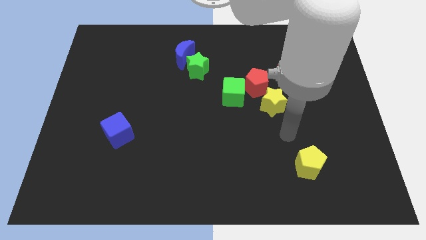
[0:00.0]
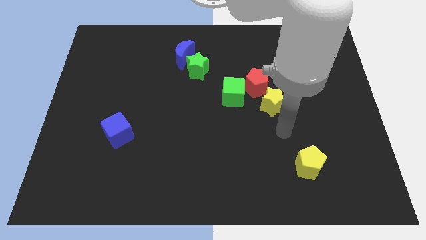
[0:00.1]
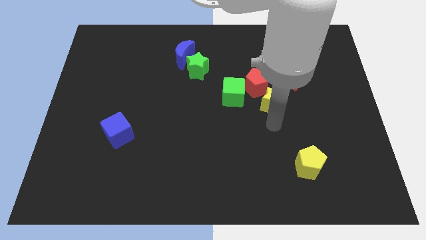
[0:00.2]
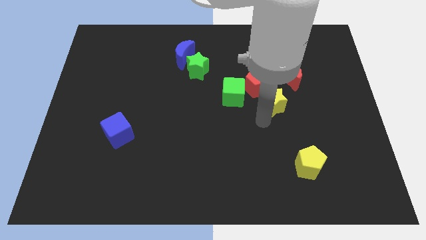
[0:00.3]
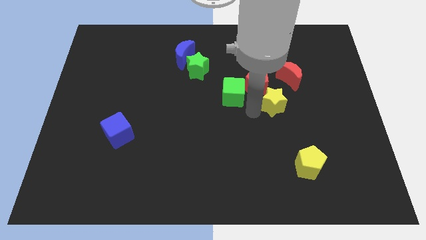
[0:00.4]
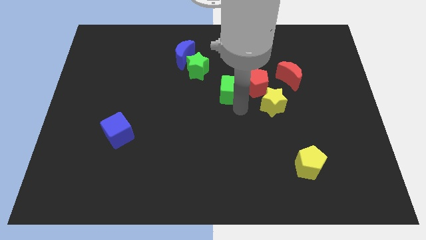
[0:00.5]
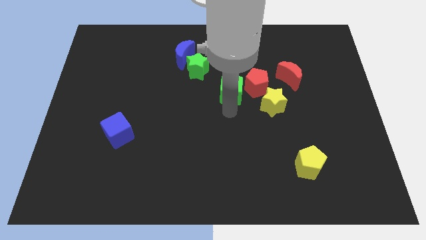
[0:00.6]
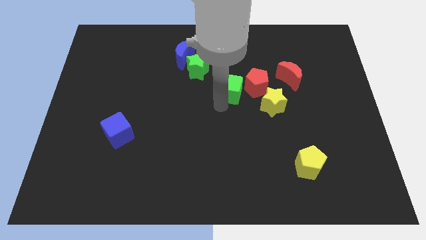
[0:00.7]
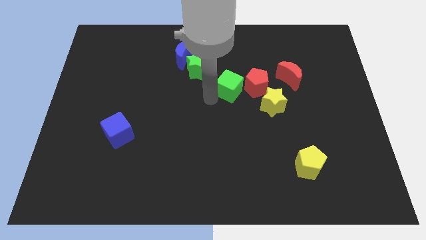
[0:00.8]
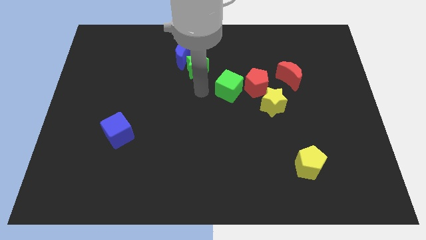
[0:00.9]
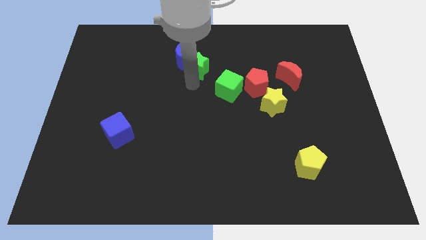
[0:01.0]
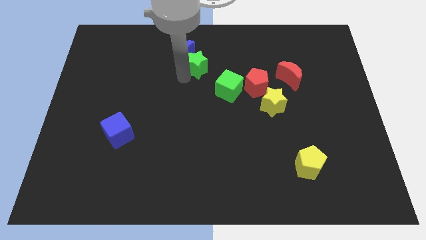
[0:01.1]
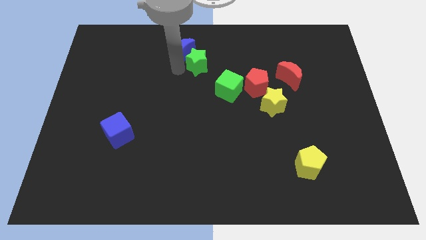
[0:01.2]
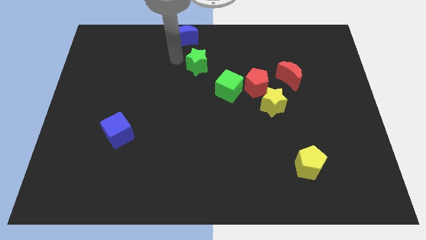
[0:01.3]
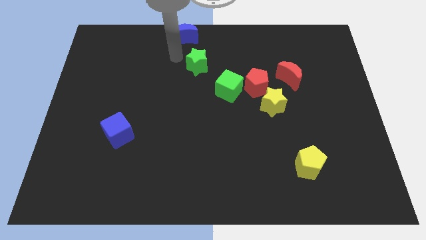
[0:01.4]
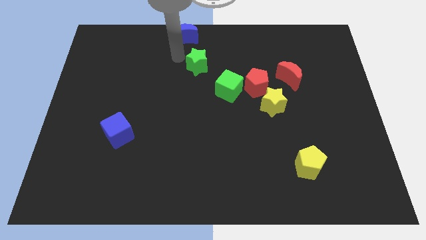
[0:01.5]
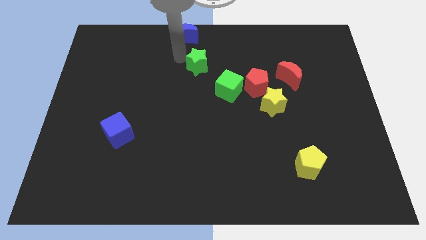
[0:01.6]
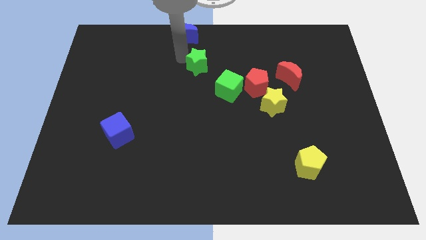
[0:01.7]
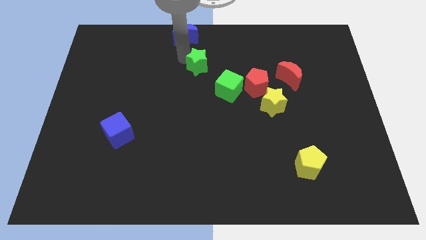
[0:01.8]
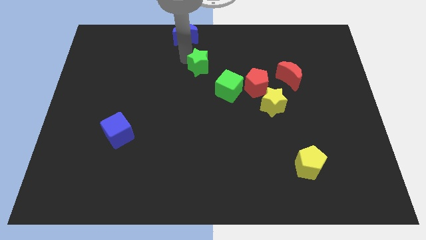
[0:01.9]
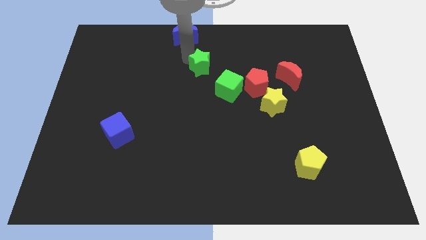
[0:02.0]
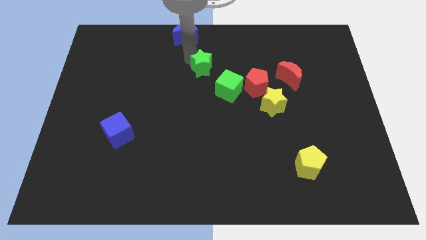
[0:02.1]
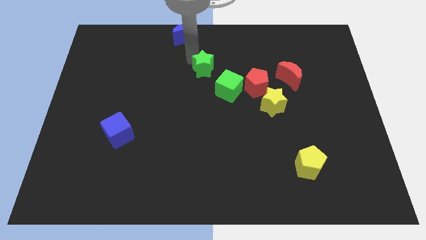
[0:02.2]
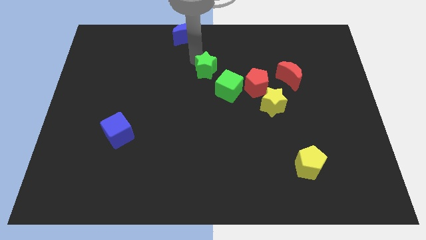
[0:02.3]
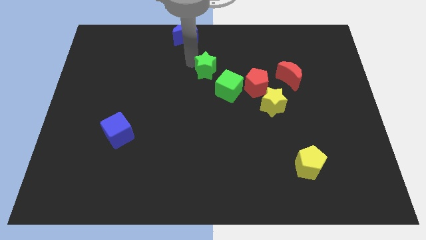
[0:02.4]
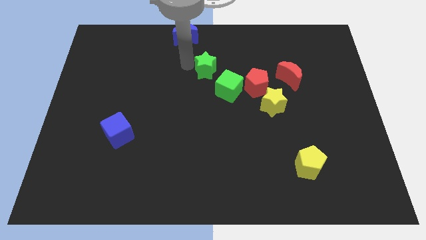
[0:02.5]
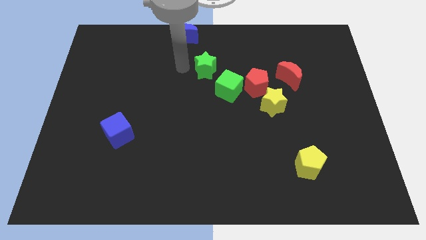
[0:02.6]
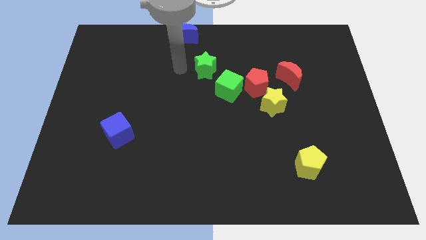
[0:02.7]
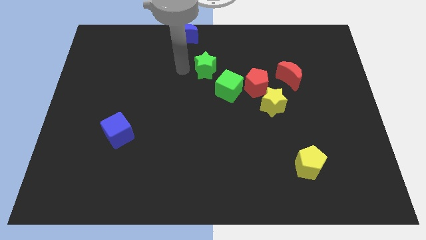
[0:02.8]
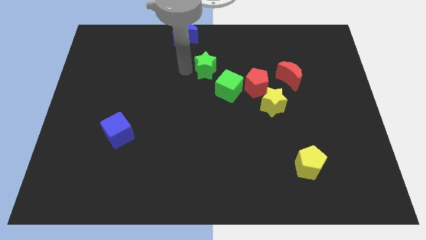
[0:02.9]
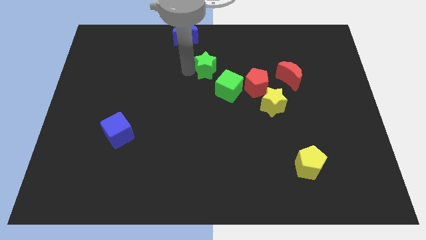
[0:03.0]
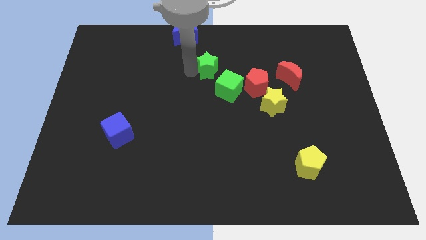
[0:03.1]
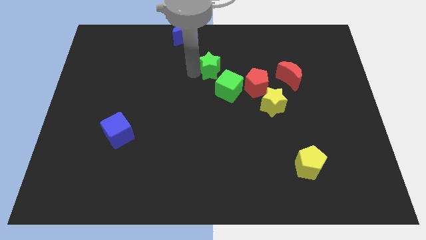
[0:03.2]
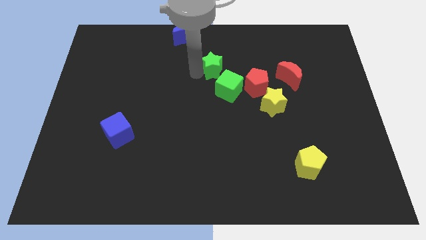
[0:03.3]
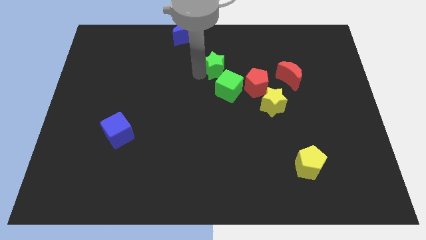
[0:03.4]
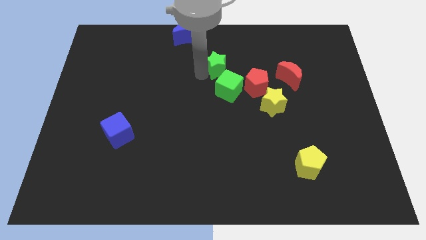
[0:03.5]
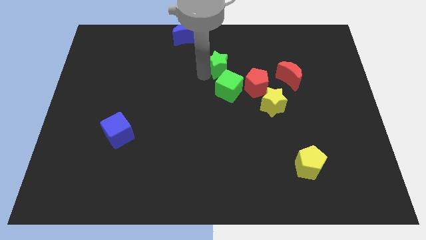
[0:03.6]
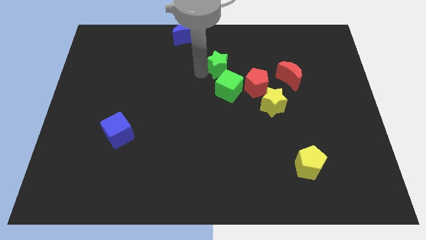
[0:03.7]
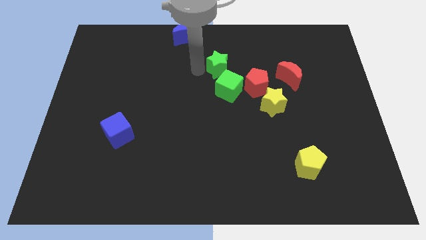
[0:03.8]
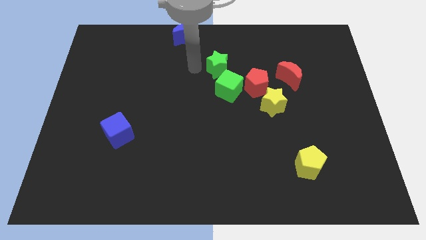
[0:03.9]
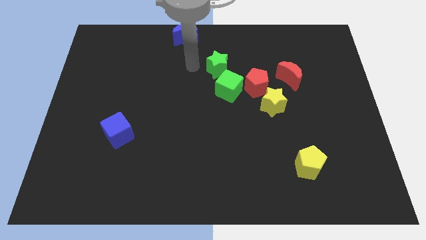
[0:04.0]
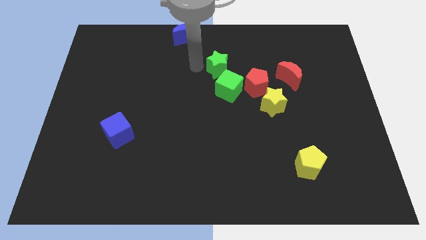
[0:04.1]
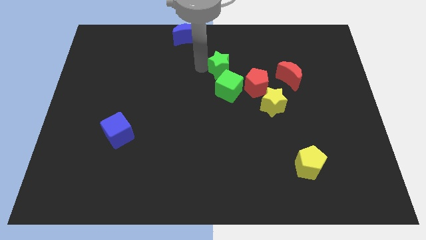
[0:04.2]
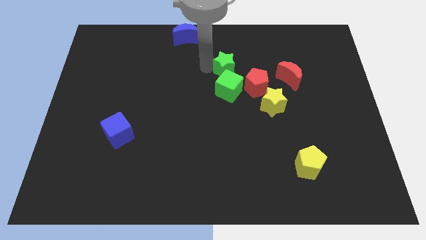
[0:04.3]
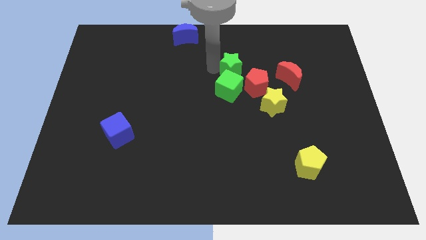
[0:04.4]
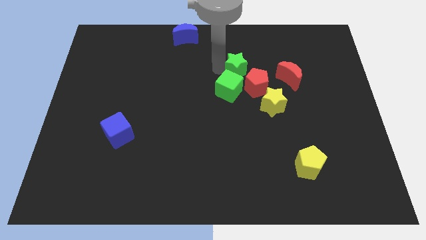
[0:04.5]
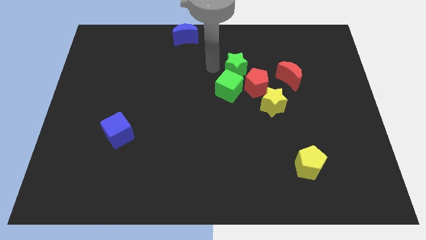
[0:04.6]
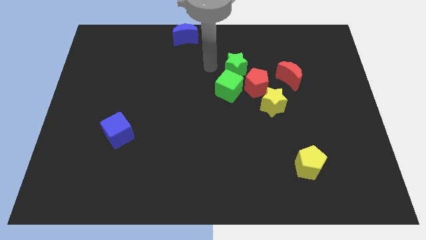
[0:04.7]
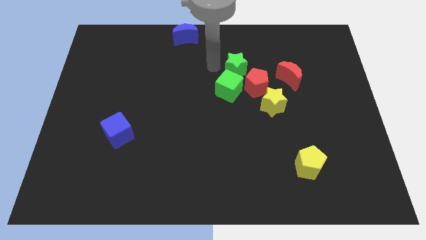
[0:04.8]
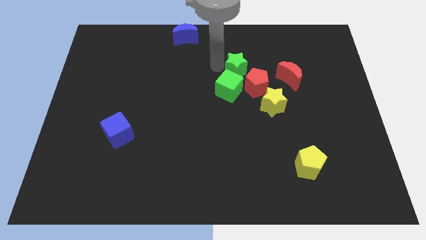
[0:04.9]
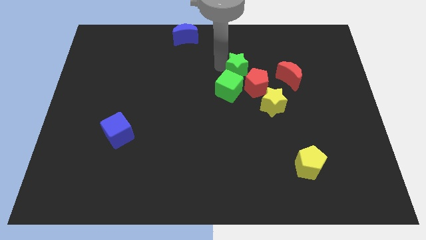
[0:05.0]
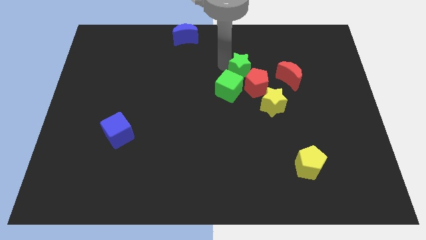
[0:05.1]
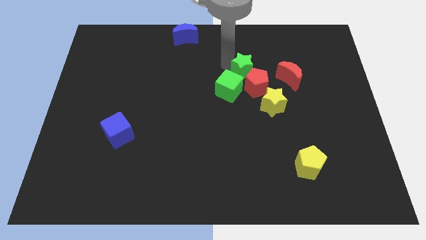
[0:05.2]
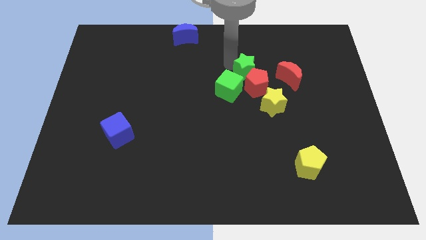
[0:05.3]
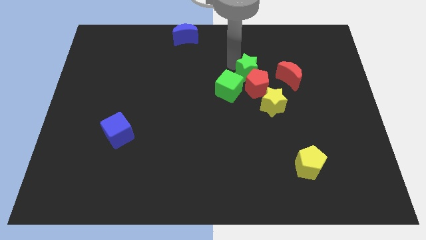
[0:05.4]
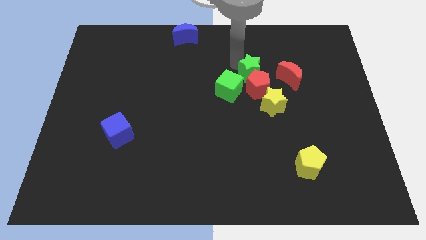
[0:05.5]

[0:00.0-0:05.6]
push the green star to the top side of the yellow star

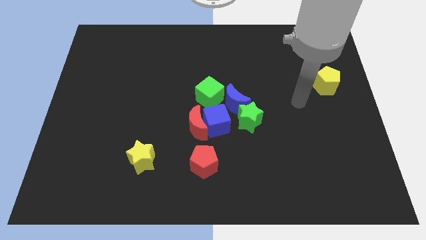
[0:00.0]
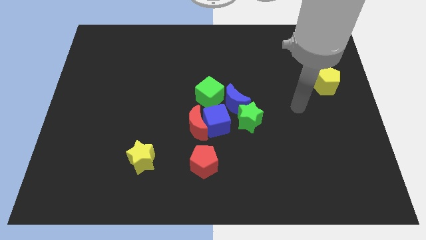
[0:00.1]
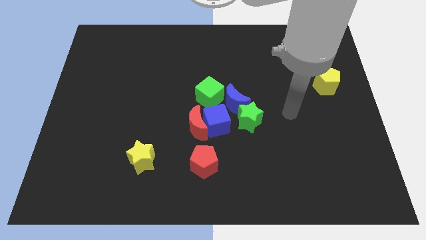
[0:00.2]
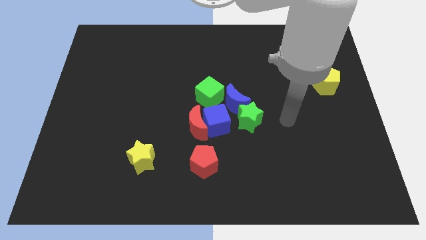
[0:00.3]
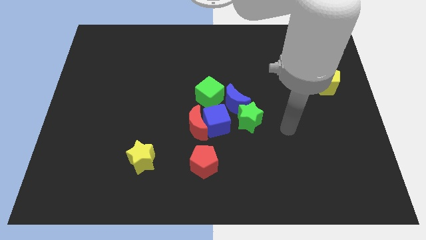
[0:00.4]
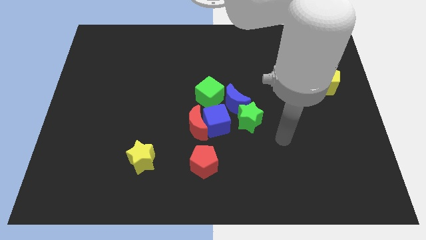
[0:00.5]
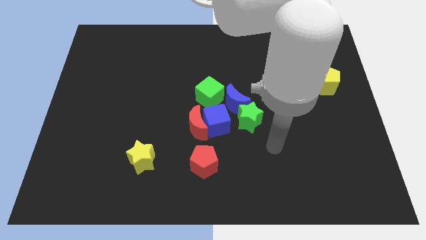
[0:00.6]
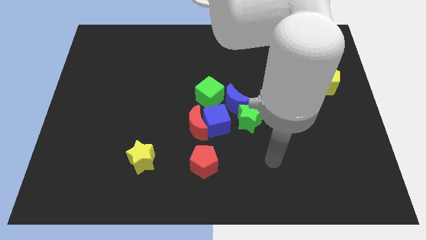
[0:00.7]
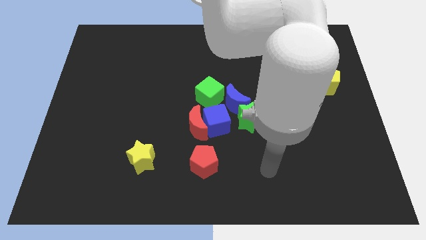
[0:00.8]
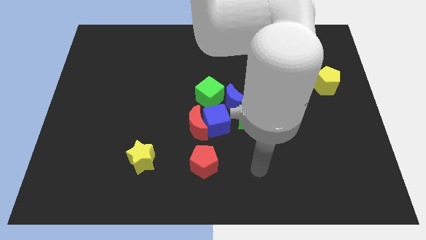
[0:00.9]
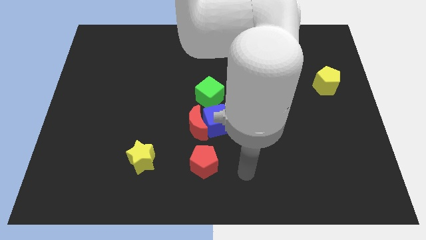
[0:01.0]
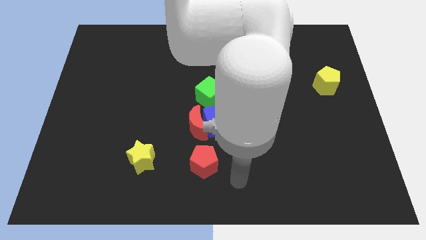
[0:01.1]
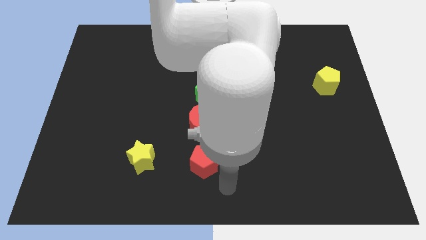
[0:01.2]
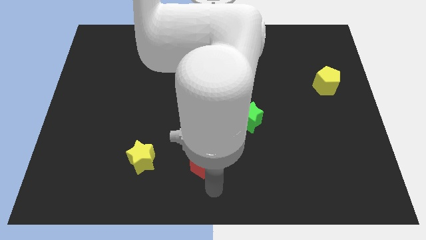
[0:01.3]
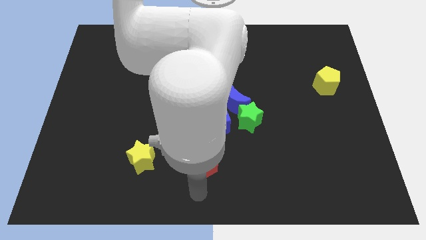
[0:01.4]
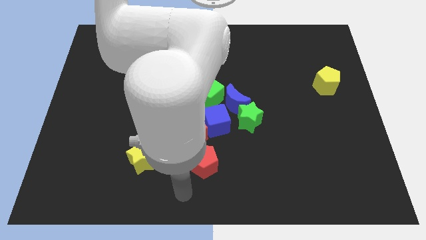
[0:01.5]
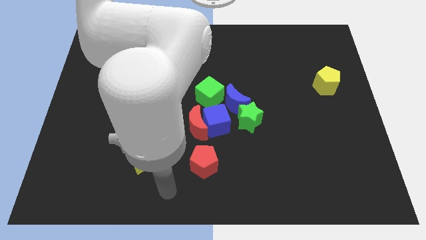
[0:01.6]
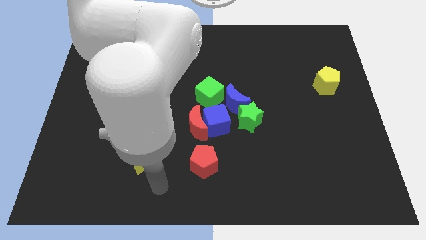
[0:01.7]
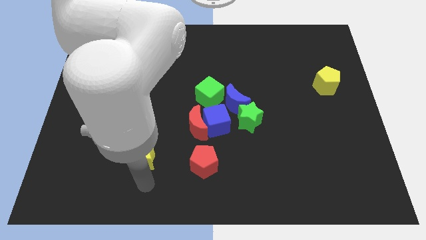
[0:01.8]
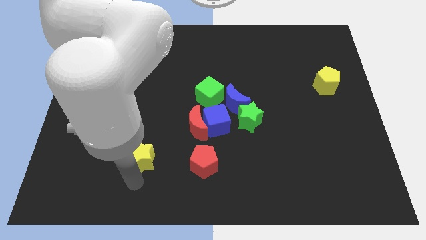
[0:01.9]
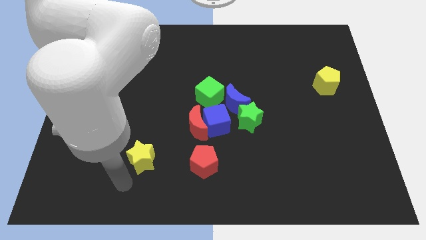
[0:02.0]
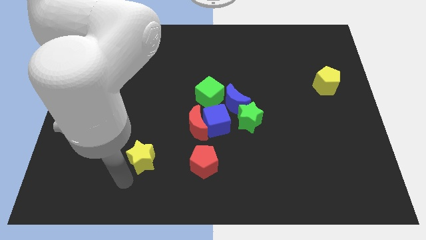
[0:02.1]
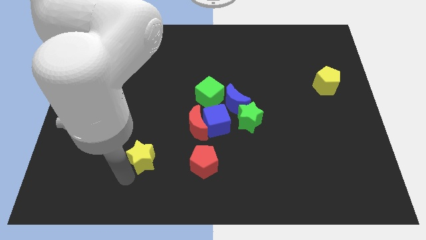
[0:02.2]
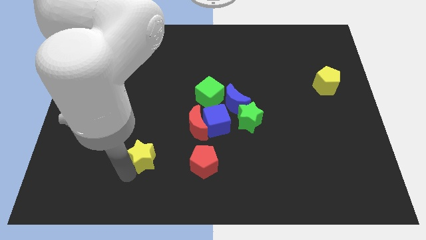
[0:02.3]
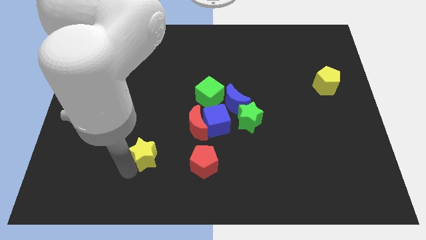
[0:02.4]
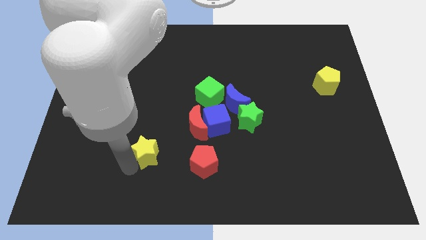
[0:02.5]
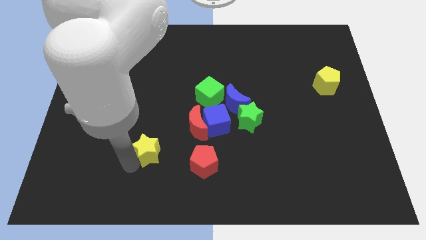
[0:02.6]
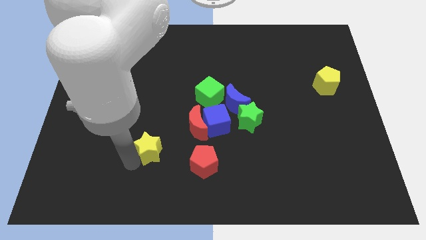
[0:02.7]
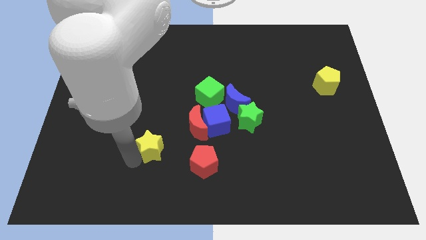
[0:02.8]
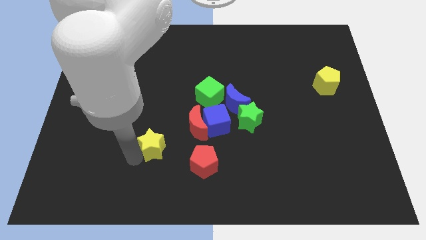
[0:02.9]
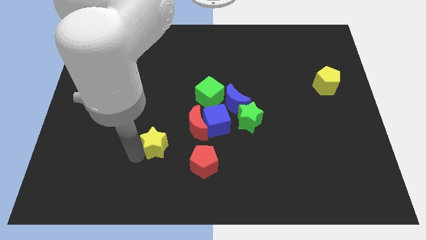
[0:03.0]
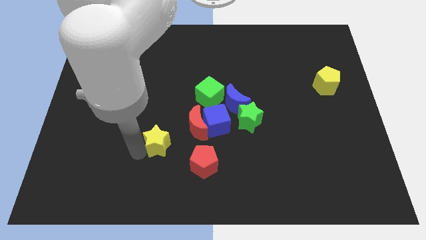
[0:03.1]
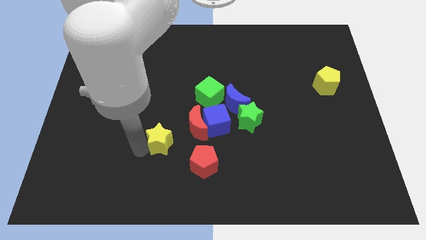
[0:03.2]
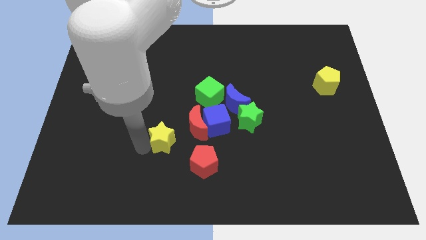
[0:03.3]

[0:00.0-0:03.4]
move the yellow star to the left of the blue cube
